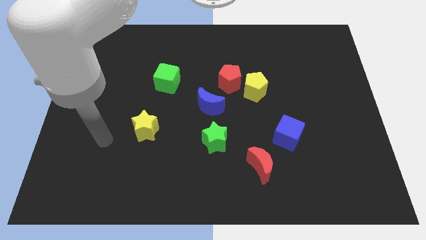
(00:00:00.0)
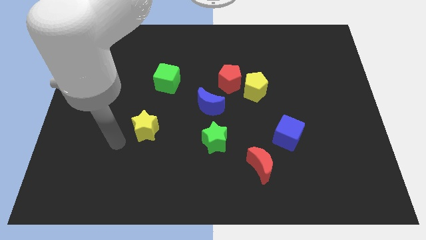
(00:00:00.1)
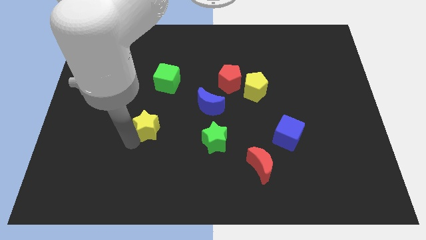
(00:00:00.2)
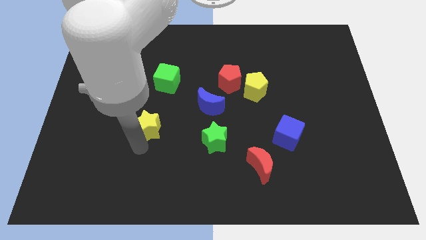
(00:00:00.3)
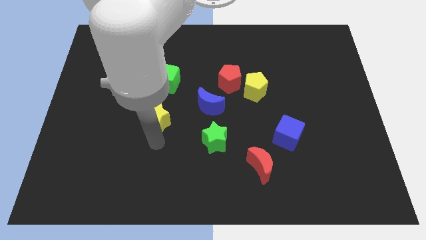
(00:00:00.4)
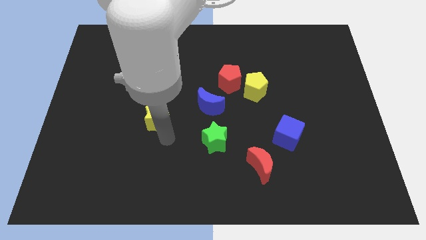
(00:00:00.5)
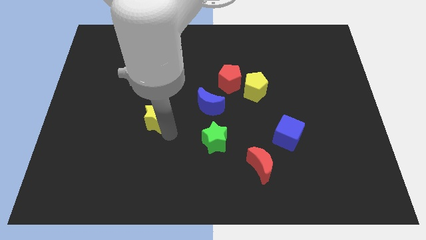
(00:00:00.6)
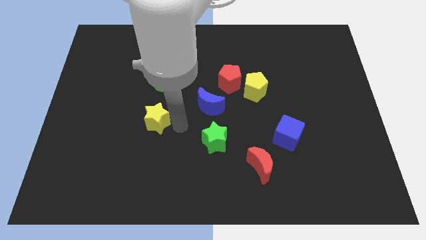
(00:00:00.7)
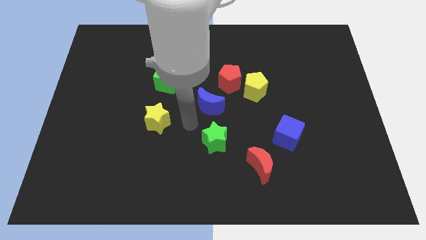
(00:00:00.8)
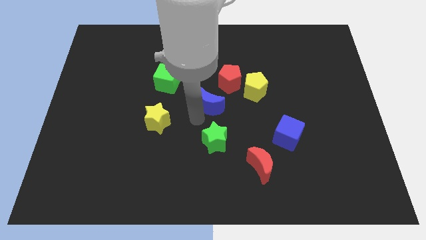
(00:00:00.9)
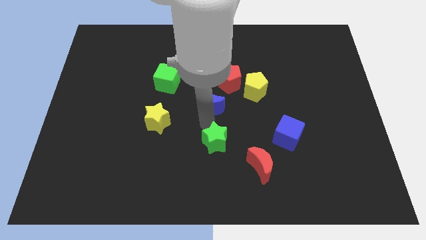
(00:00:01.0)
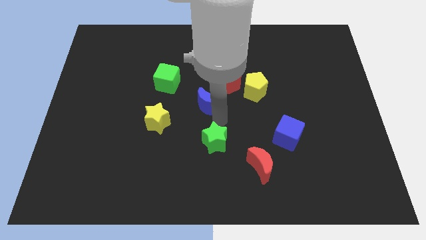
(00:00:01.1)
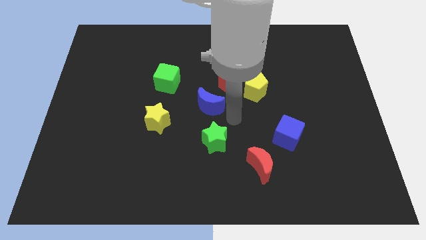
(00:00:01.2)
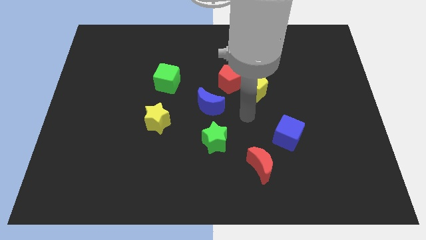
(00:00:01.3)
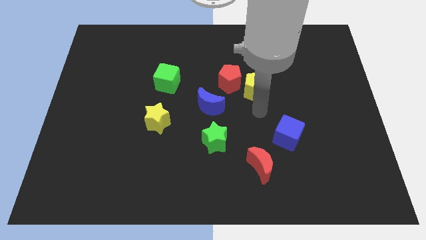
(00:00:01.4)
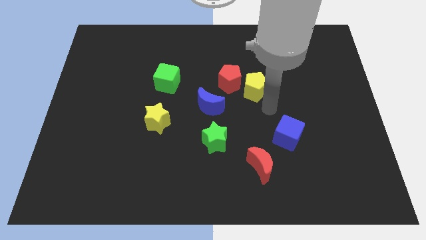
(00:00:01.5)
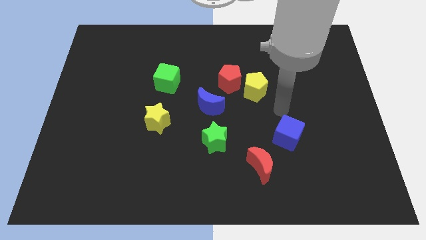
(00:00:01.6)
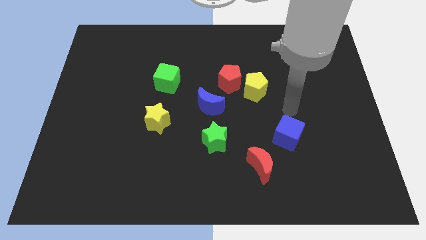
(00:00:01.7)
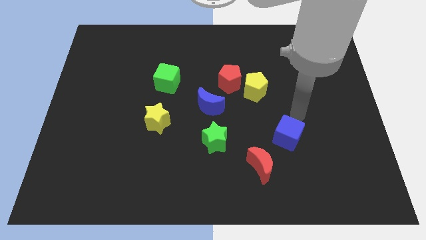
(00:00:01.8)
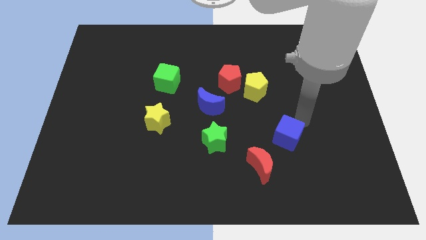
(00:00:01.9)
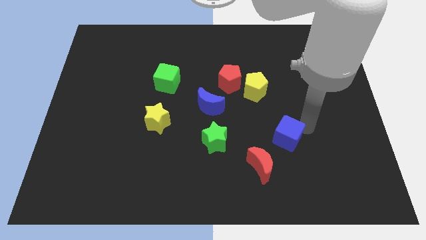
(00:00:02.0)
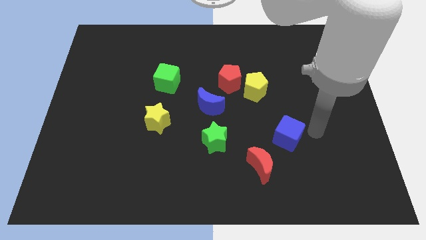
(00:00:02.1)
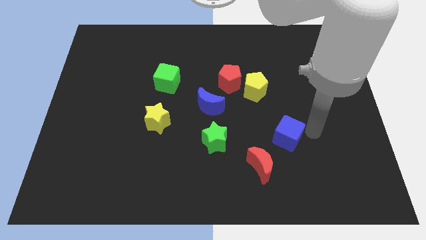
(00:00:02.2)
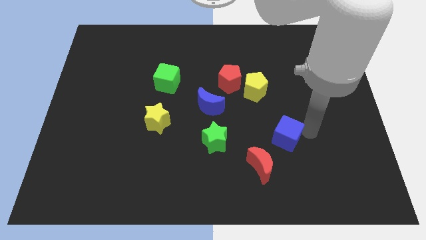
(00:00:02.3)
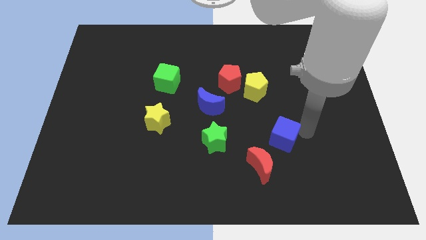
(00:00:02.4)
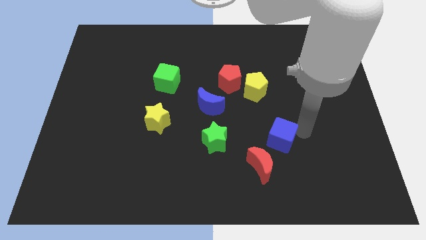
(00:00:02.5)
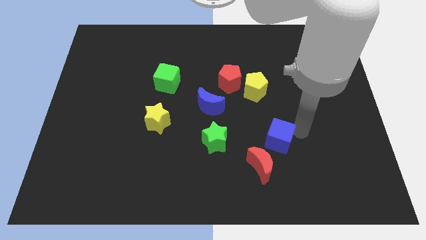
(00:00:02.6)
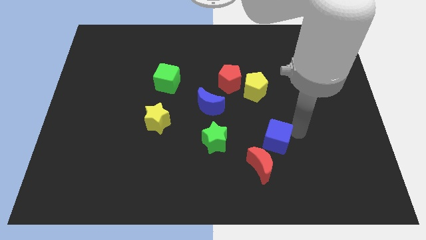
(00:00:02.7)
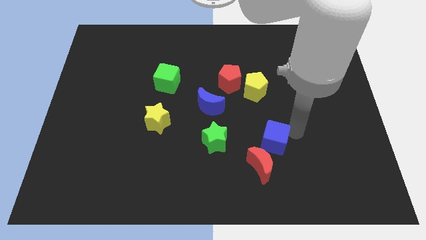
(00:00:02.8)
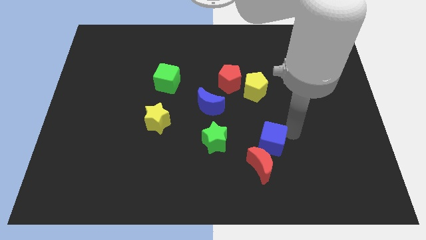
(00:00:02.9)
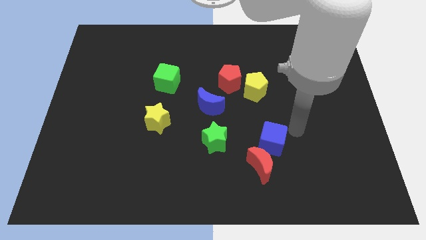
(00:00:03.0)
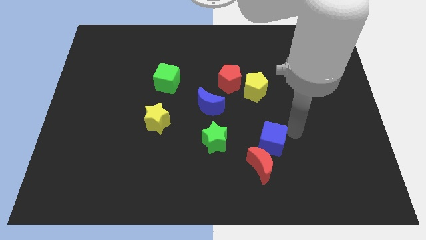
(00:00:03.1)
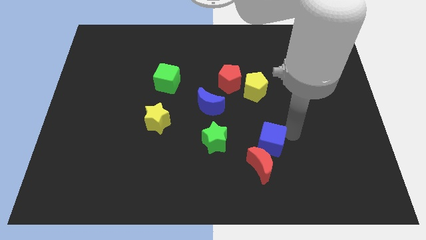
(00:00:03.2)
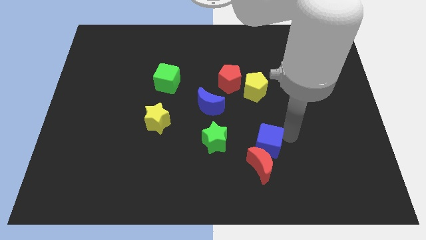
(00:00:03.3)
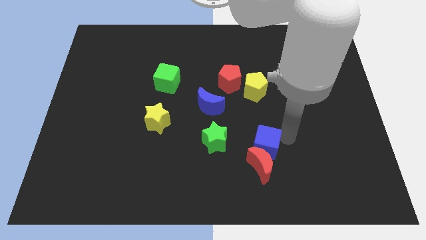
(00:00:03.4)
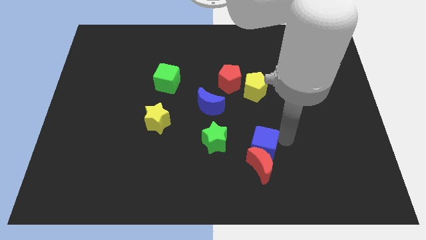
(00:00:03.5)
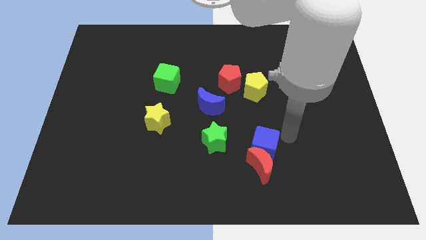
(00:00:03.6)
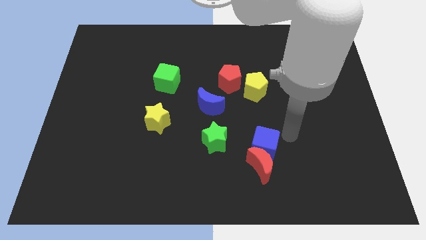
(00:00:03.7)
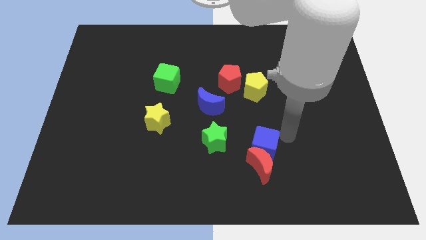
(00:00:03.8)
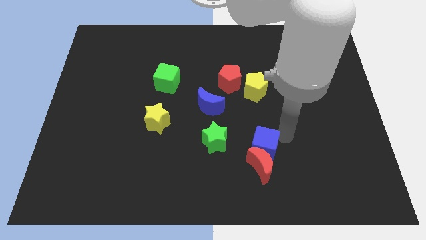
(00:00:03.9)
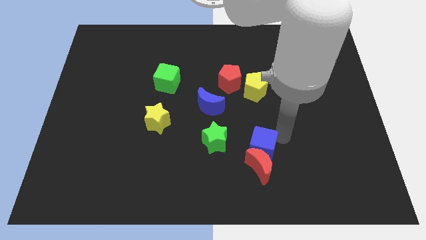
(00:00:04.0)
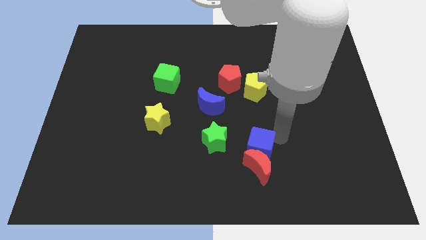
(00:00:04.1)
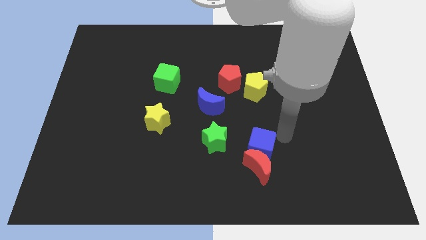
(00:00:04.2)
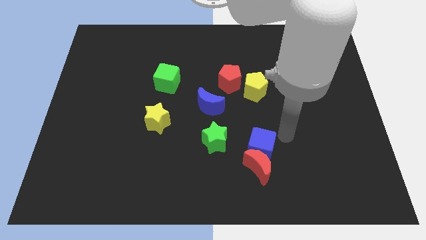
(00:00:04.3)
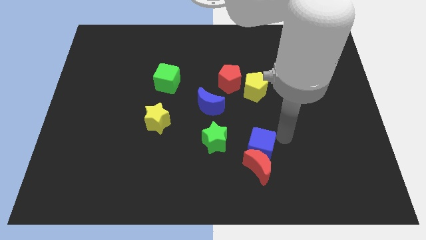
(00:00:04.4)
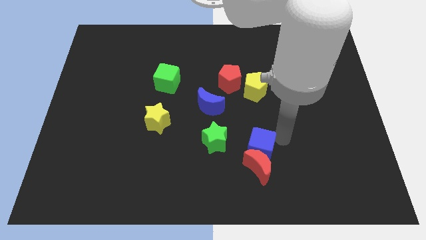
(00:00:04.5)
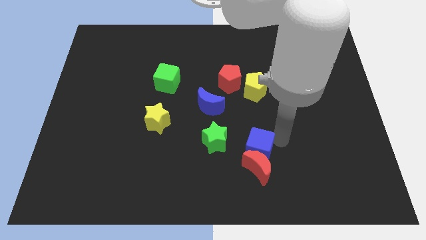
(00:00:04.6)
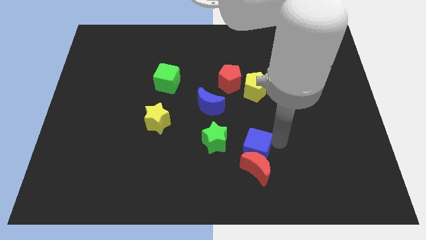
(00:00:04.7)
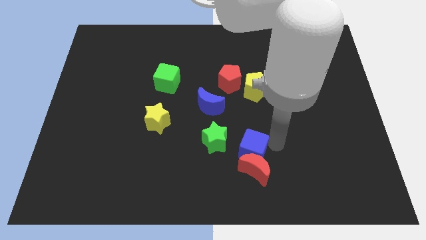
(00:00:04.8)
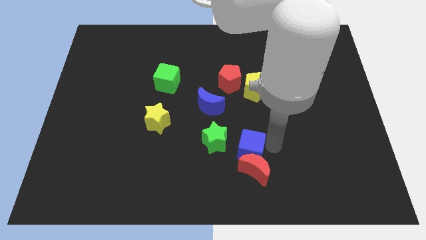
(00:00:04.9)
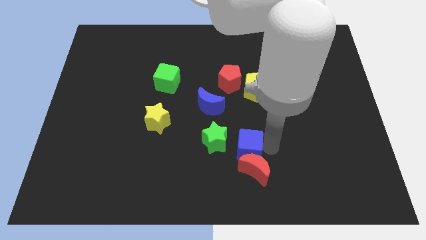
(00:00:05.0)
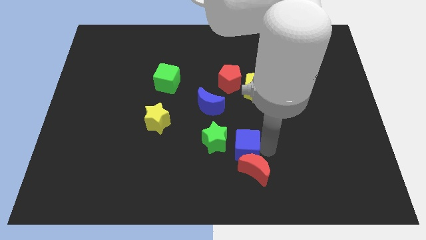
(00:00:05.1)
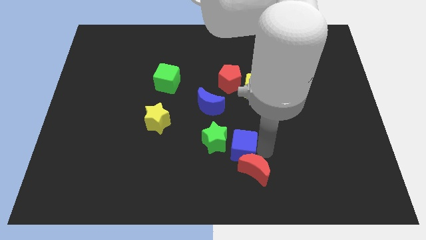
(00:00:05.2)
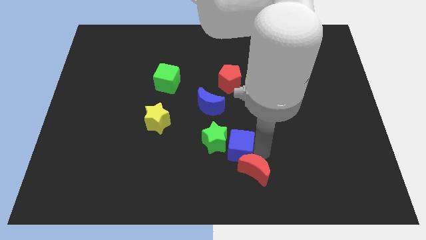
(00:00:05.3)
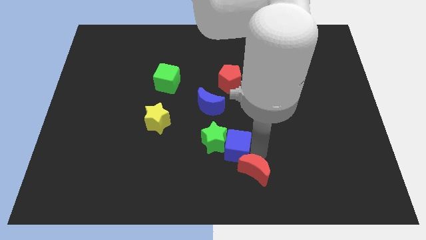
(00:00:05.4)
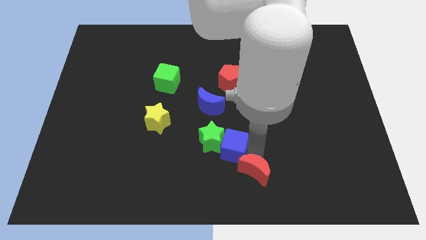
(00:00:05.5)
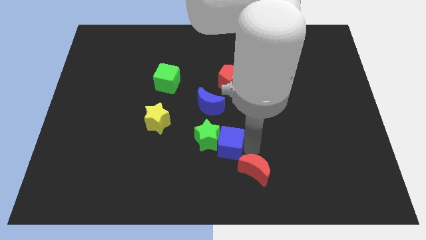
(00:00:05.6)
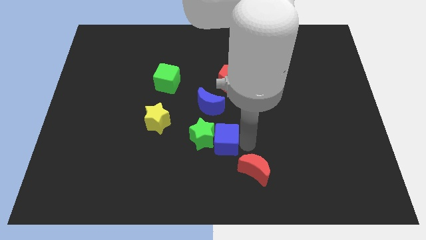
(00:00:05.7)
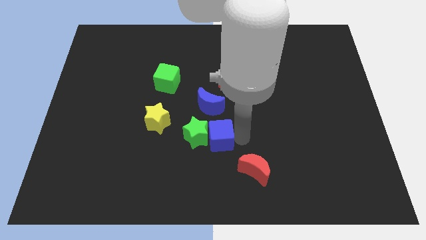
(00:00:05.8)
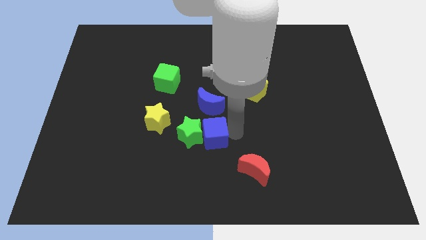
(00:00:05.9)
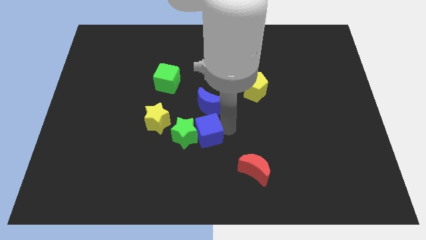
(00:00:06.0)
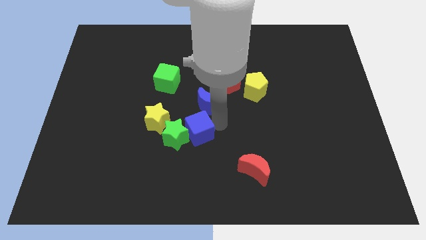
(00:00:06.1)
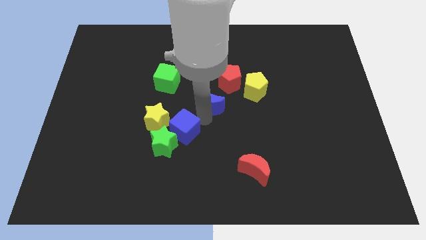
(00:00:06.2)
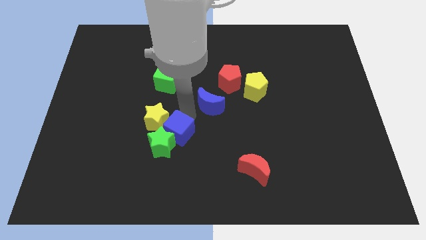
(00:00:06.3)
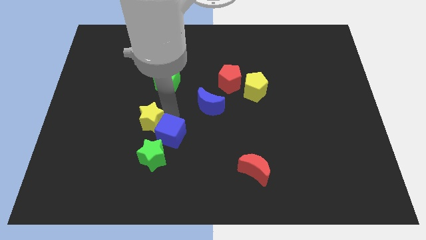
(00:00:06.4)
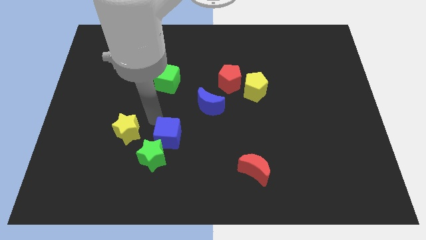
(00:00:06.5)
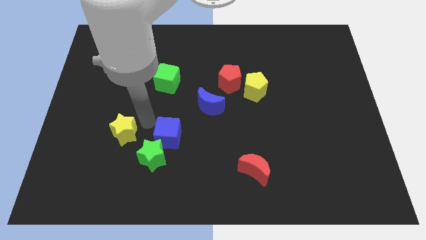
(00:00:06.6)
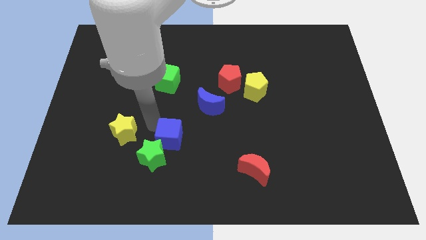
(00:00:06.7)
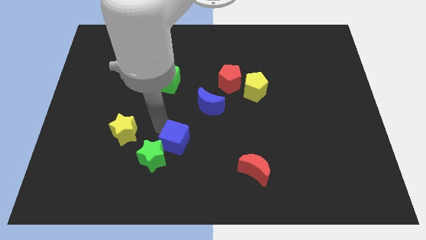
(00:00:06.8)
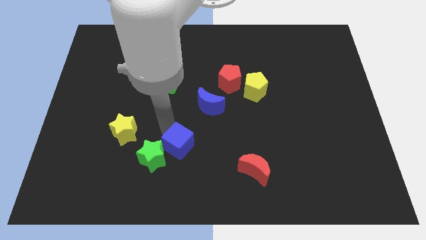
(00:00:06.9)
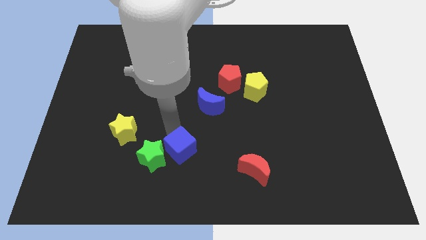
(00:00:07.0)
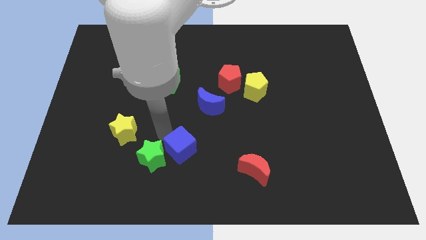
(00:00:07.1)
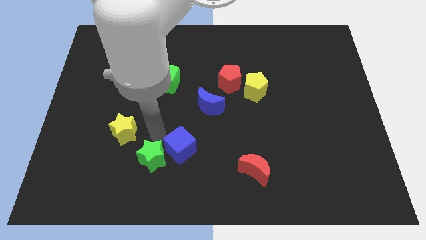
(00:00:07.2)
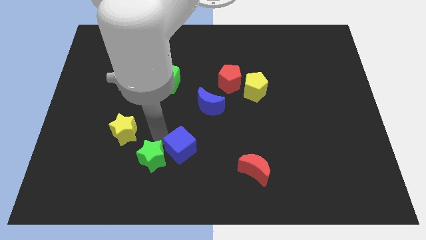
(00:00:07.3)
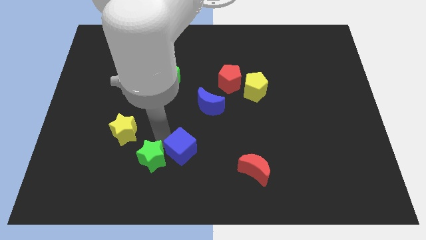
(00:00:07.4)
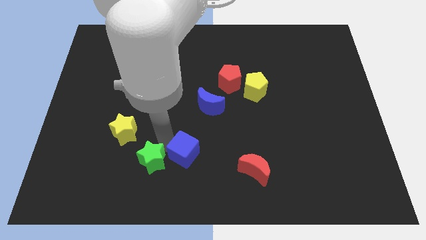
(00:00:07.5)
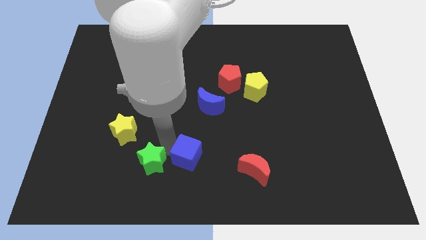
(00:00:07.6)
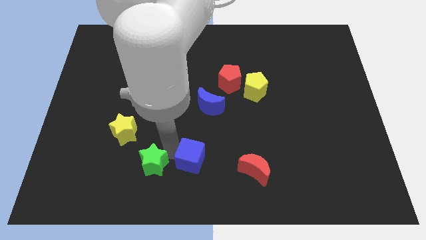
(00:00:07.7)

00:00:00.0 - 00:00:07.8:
put the blue cube to the bottom side
